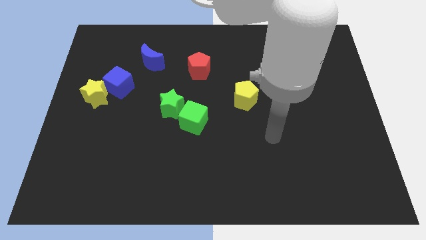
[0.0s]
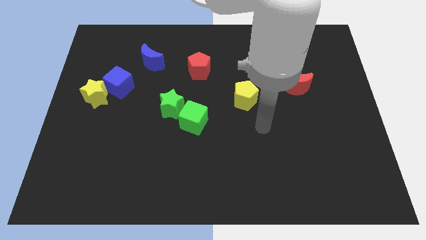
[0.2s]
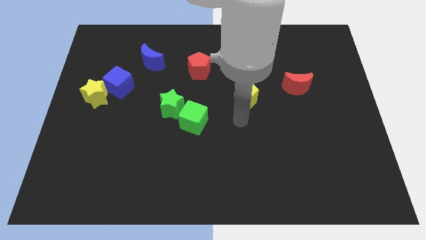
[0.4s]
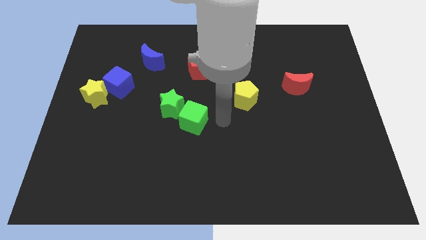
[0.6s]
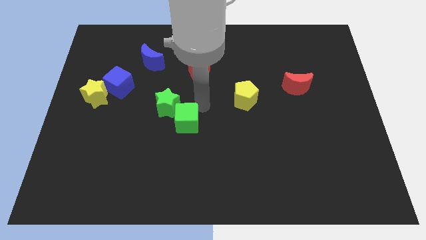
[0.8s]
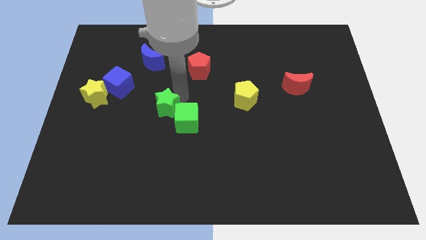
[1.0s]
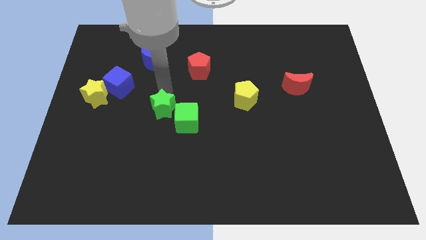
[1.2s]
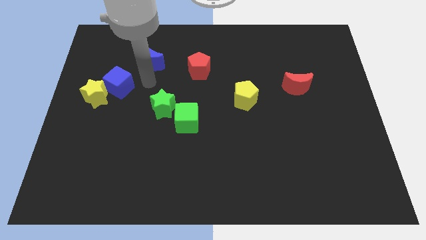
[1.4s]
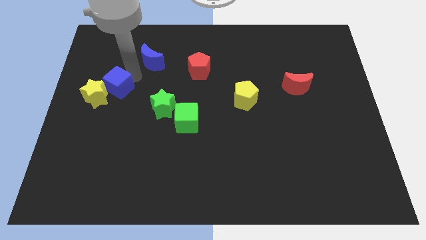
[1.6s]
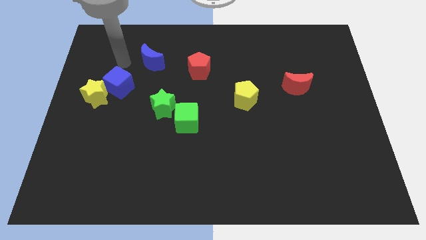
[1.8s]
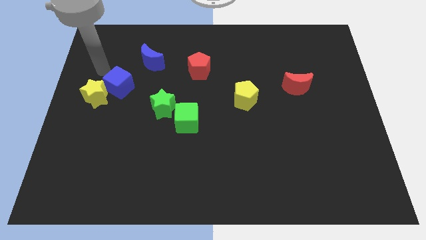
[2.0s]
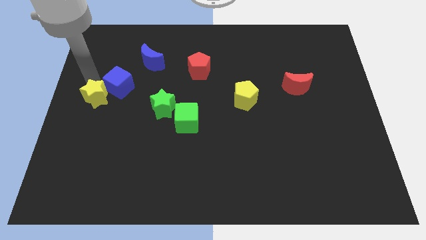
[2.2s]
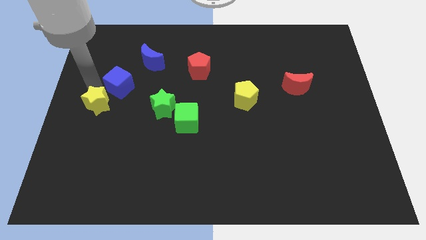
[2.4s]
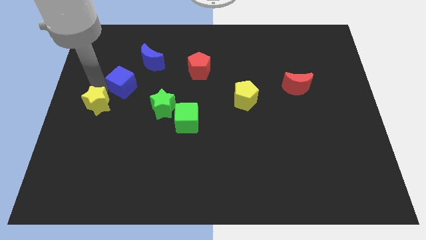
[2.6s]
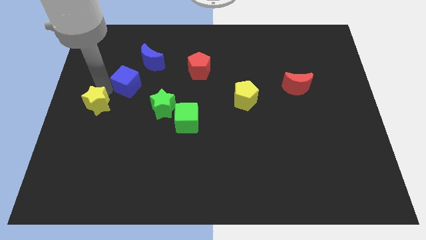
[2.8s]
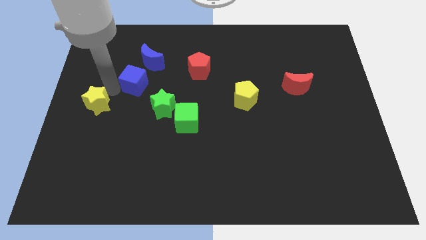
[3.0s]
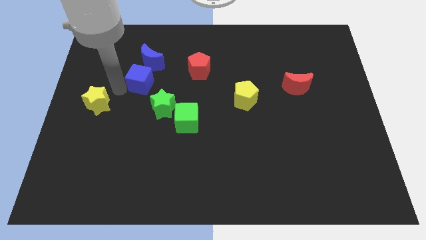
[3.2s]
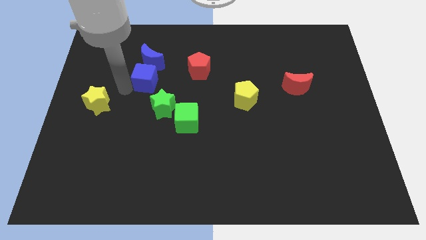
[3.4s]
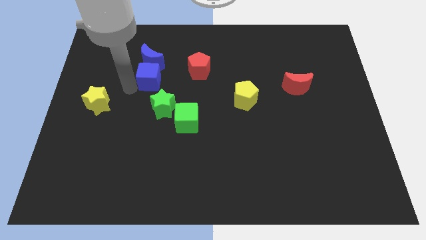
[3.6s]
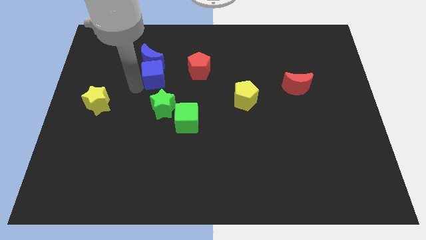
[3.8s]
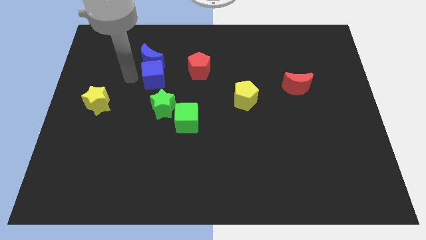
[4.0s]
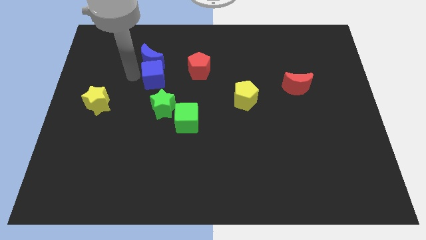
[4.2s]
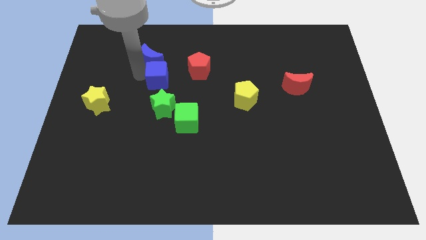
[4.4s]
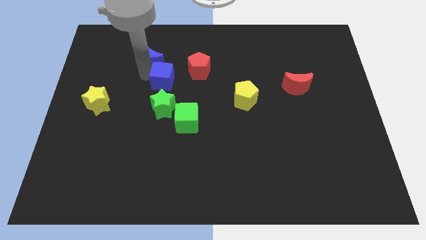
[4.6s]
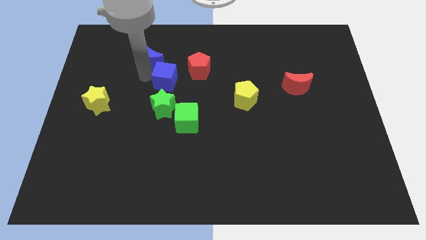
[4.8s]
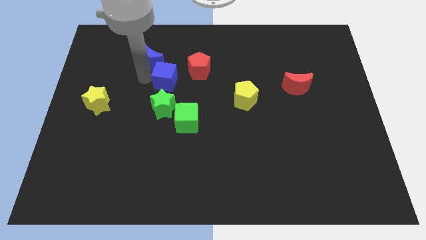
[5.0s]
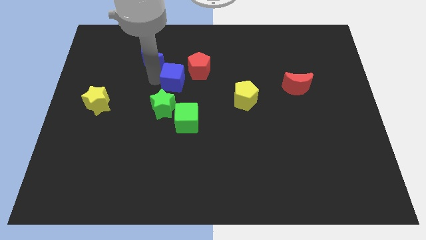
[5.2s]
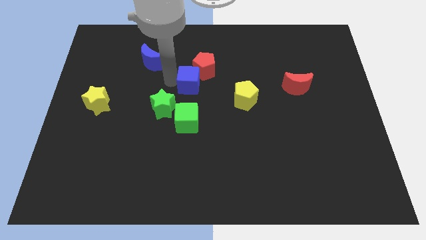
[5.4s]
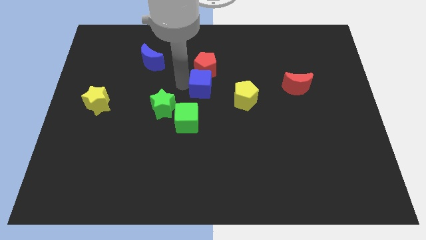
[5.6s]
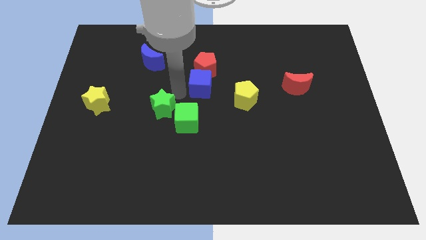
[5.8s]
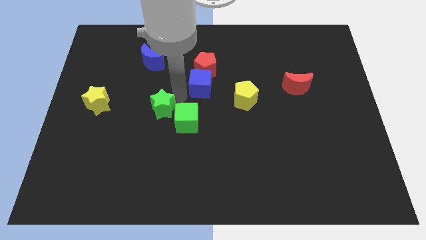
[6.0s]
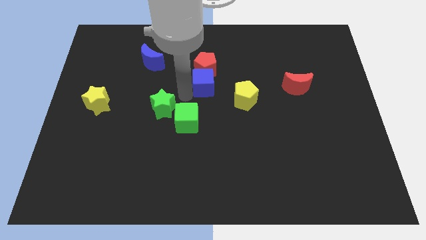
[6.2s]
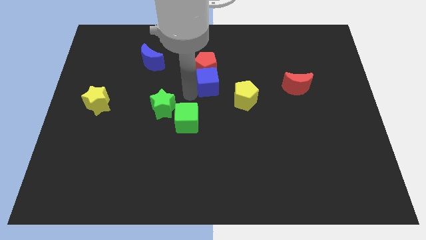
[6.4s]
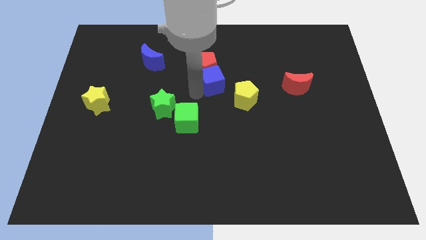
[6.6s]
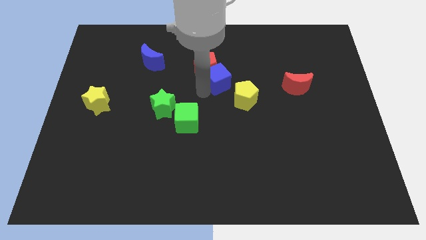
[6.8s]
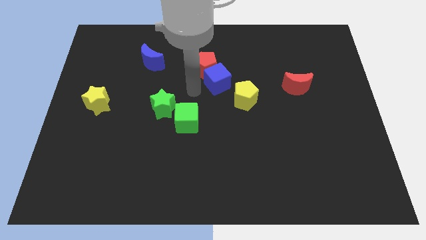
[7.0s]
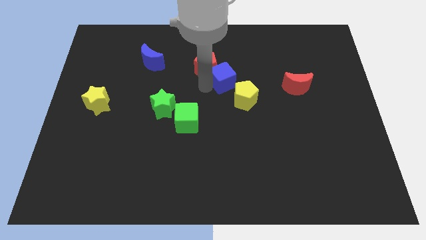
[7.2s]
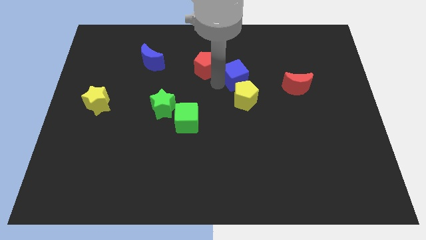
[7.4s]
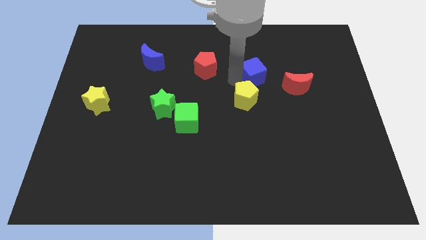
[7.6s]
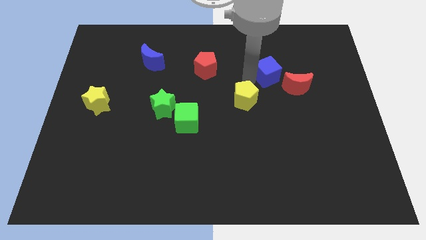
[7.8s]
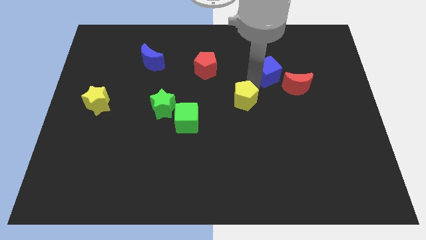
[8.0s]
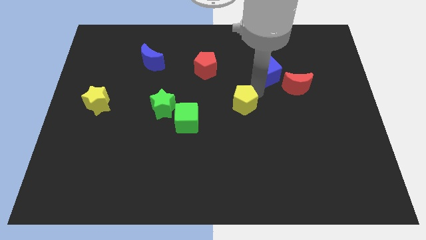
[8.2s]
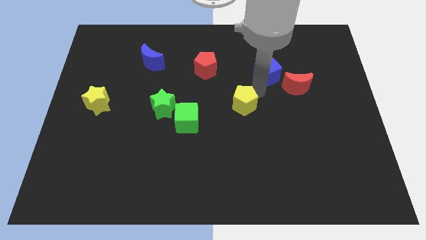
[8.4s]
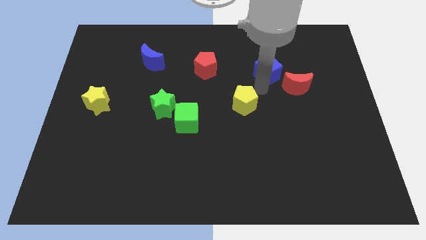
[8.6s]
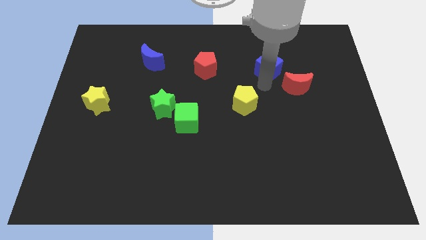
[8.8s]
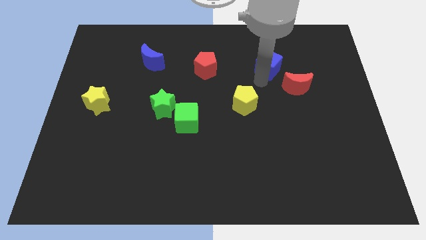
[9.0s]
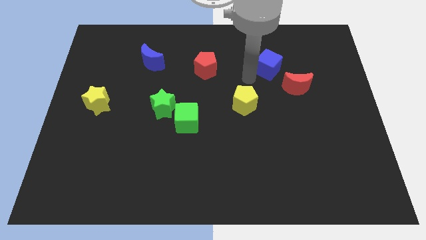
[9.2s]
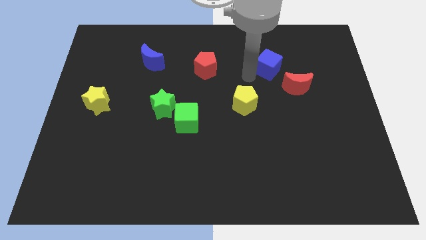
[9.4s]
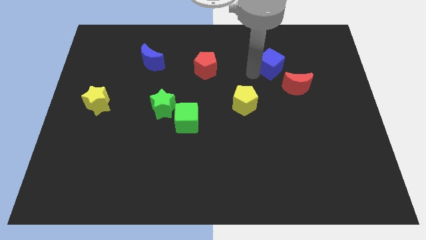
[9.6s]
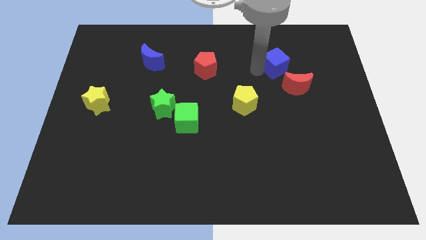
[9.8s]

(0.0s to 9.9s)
slide the blue cube to the top of the red moon

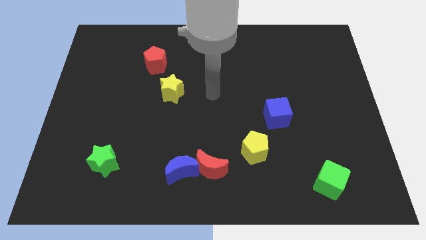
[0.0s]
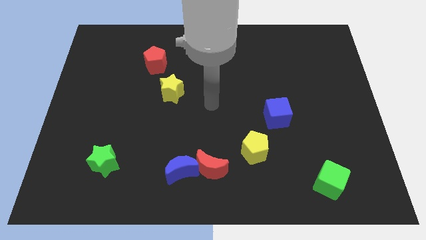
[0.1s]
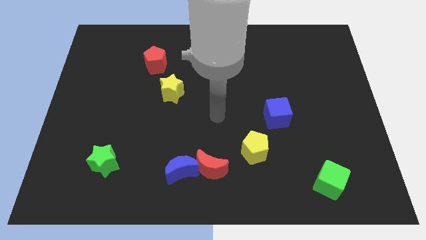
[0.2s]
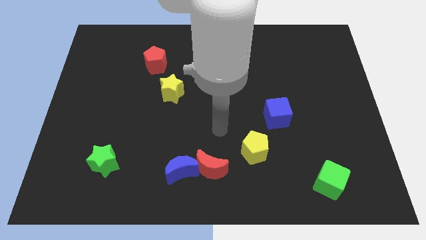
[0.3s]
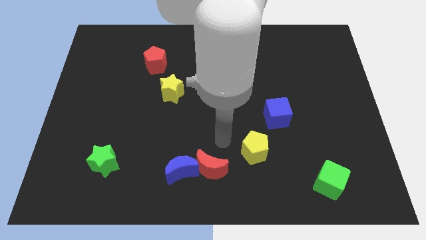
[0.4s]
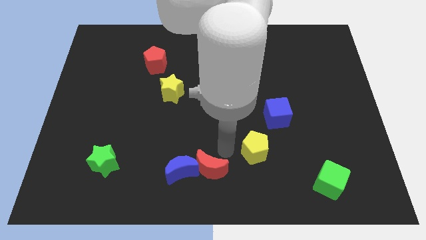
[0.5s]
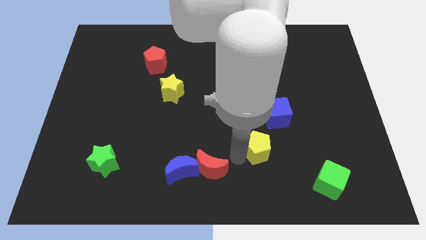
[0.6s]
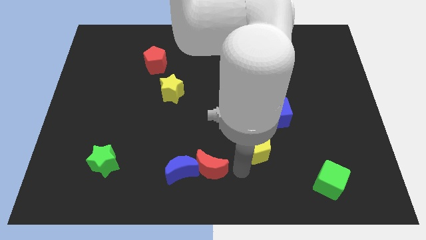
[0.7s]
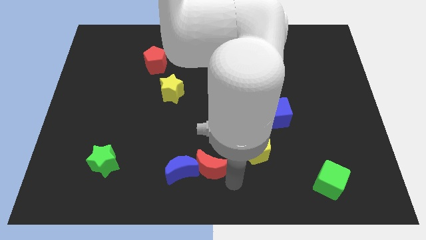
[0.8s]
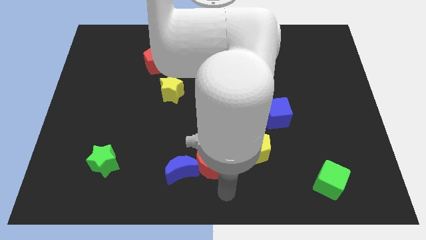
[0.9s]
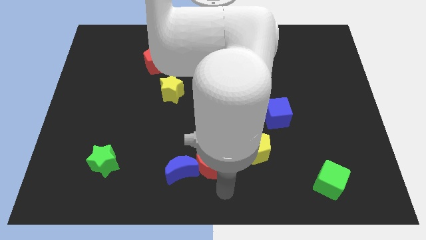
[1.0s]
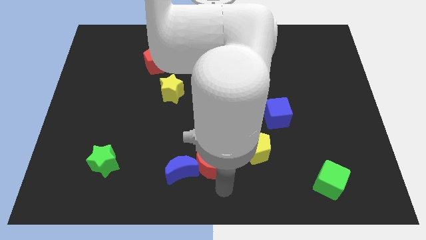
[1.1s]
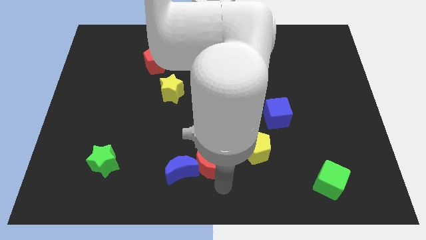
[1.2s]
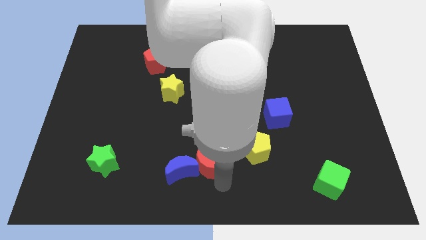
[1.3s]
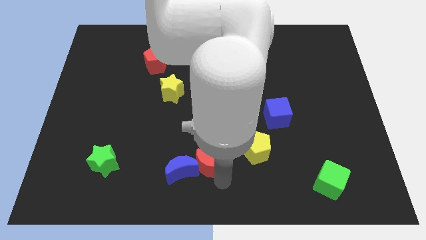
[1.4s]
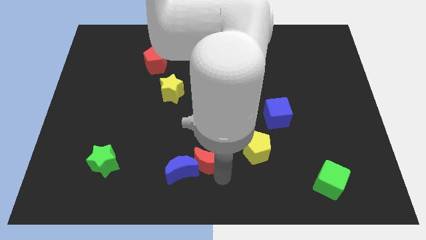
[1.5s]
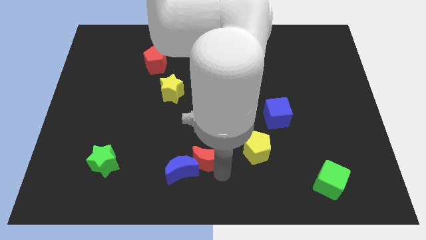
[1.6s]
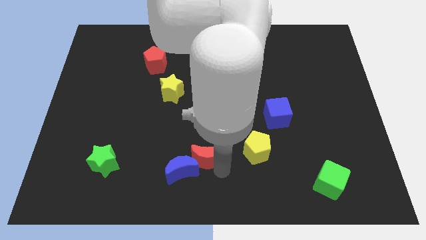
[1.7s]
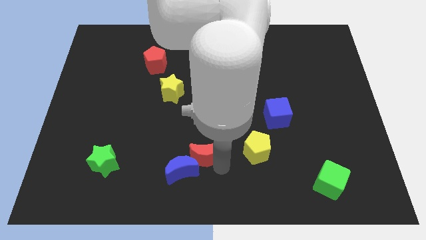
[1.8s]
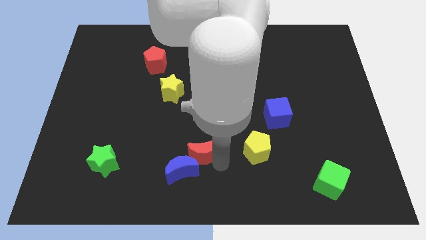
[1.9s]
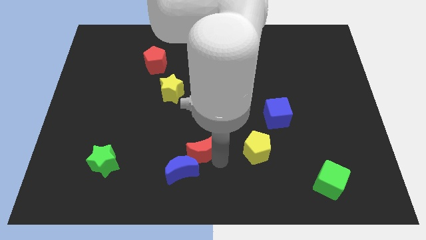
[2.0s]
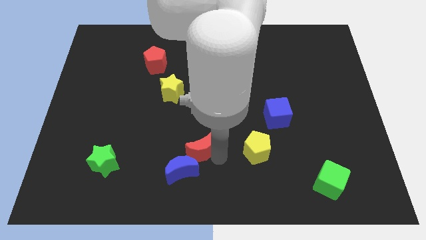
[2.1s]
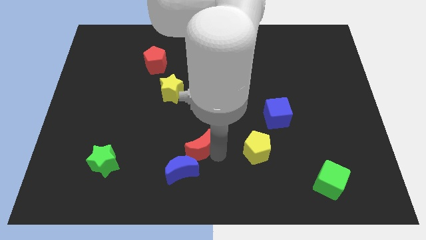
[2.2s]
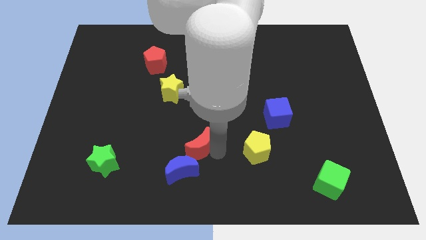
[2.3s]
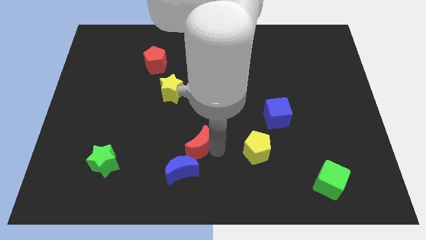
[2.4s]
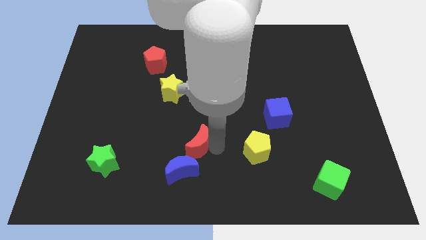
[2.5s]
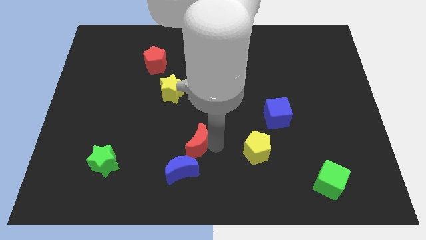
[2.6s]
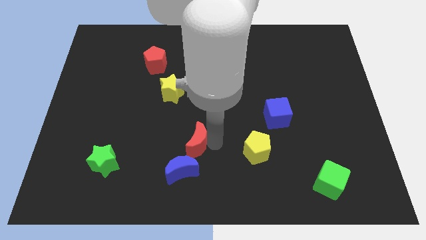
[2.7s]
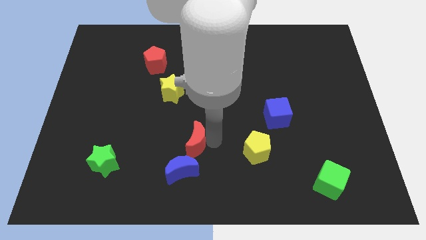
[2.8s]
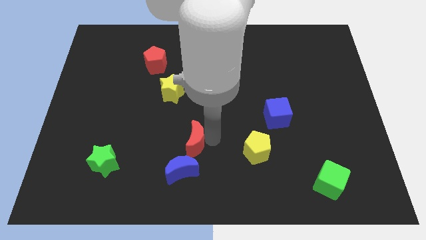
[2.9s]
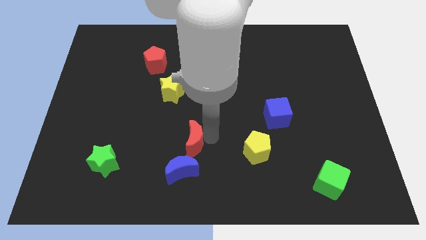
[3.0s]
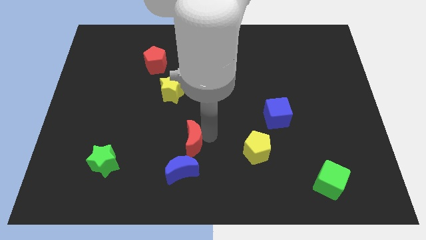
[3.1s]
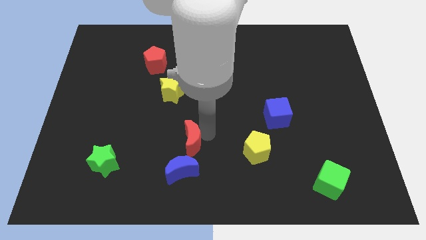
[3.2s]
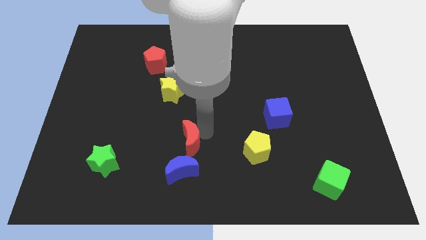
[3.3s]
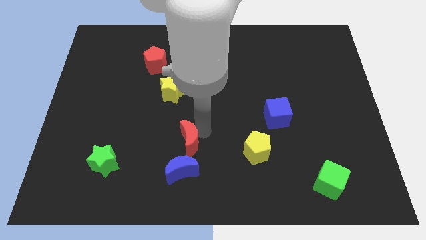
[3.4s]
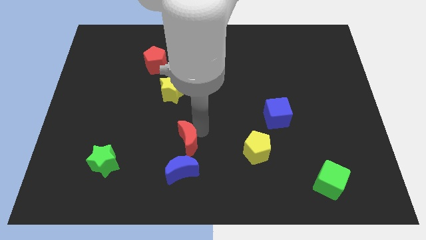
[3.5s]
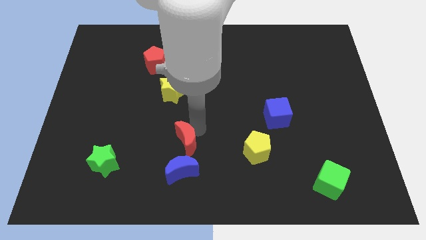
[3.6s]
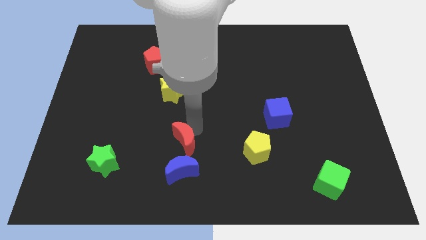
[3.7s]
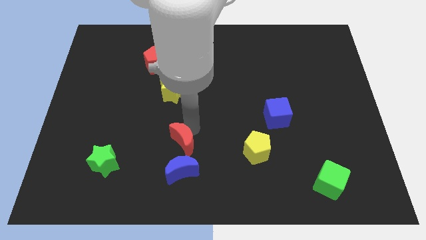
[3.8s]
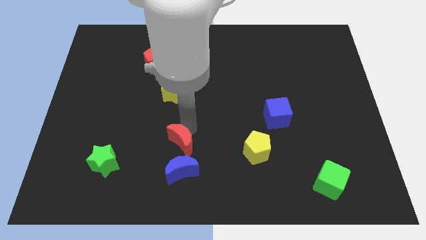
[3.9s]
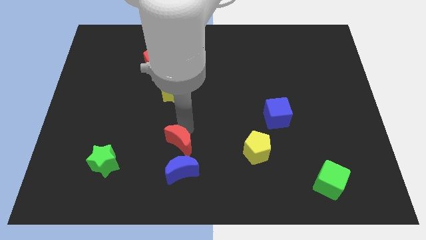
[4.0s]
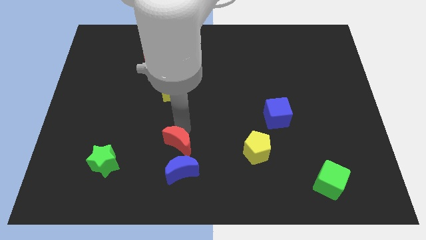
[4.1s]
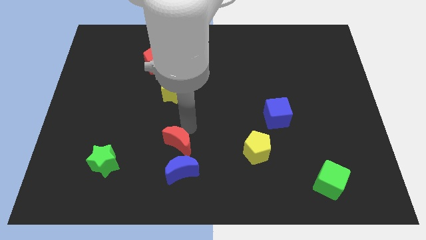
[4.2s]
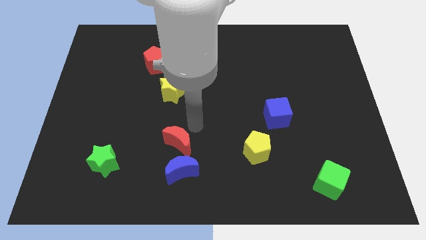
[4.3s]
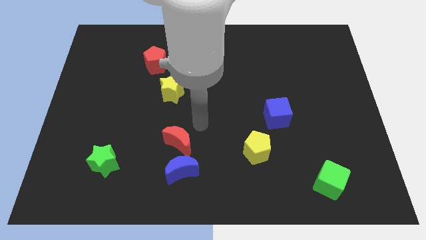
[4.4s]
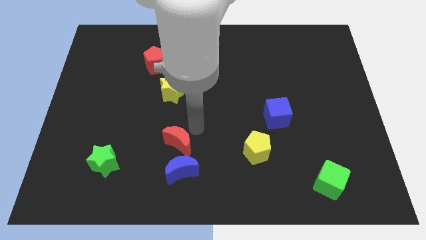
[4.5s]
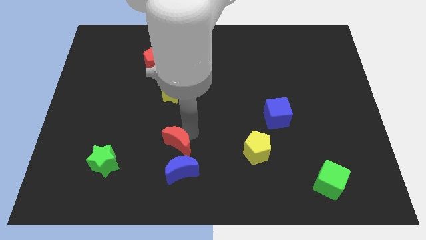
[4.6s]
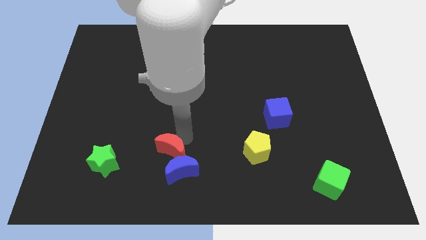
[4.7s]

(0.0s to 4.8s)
push the red moon right of the green star
